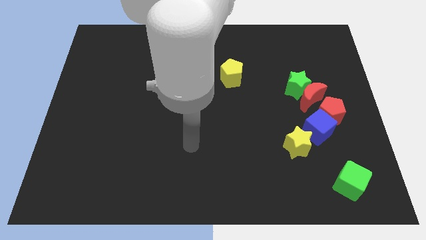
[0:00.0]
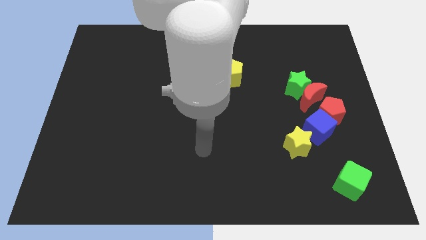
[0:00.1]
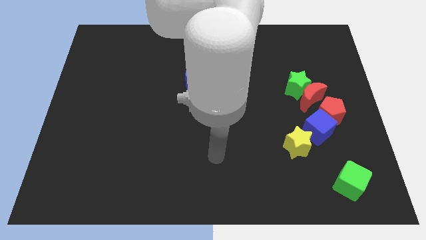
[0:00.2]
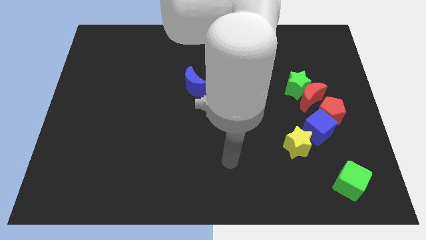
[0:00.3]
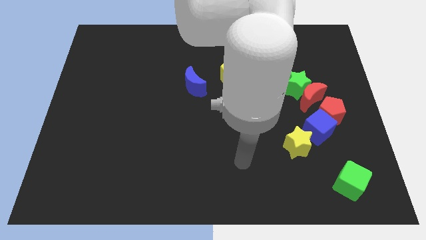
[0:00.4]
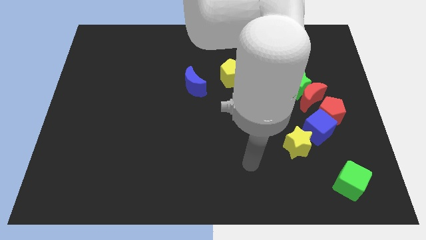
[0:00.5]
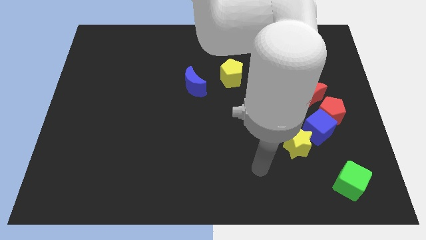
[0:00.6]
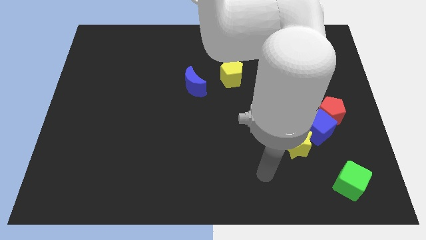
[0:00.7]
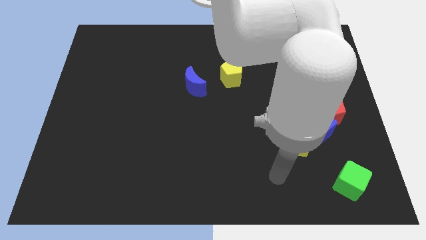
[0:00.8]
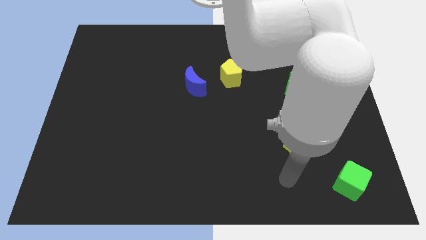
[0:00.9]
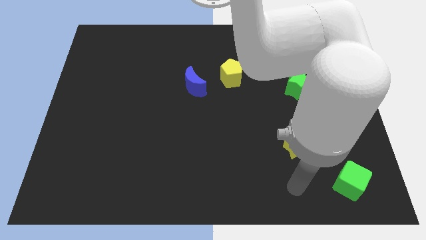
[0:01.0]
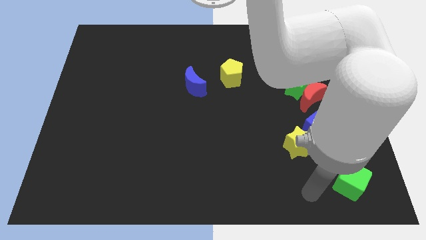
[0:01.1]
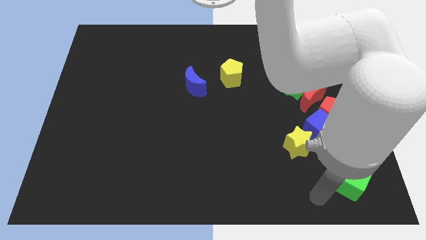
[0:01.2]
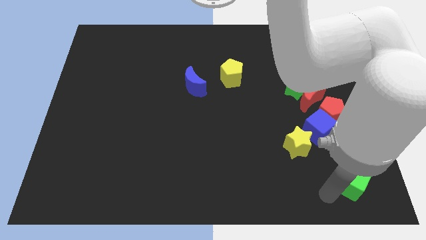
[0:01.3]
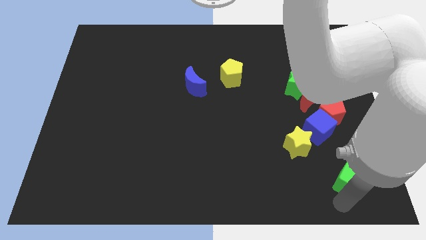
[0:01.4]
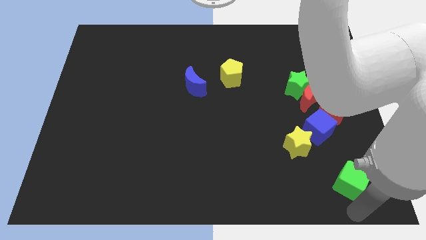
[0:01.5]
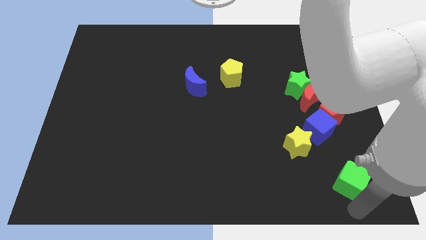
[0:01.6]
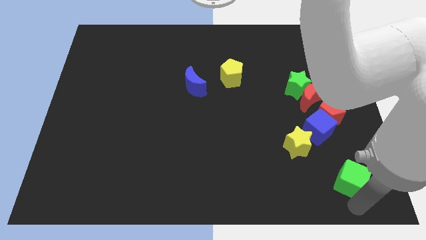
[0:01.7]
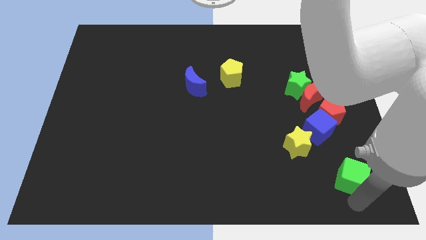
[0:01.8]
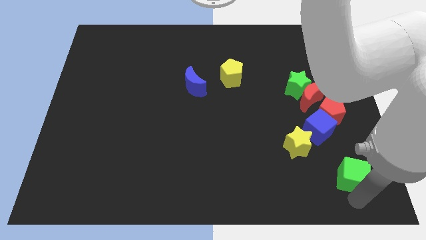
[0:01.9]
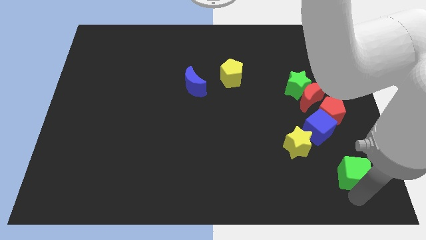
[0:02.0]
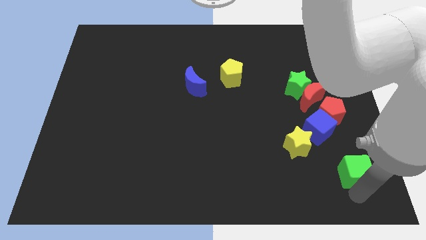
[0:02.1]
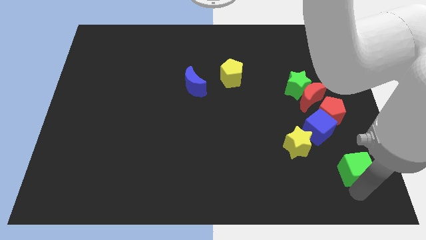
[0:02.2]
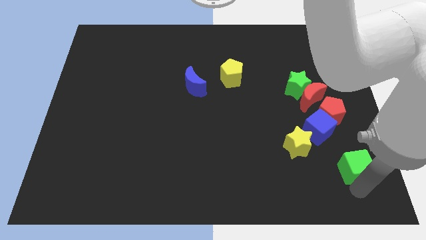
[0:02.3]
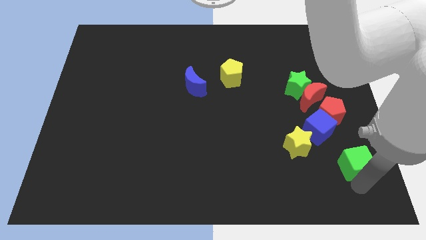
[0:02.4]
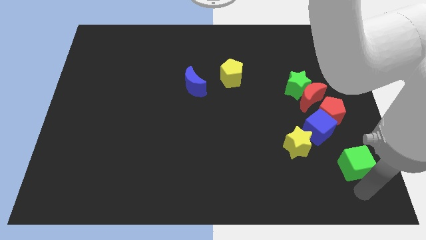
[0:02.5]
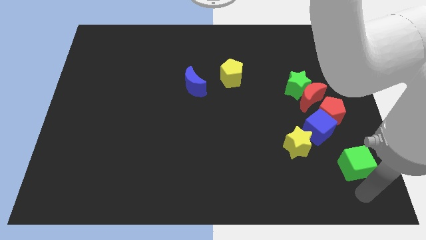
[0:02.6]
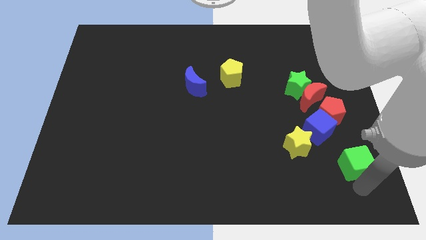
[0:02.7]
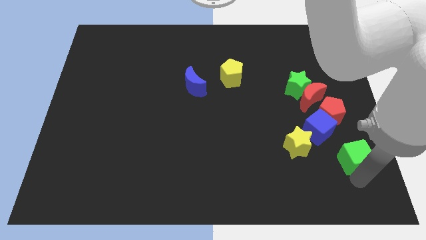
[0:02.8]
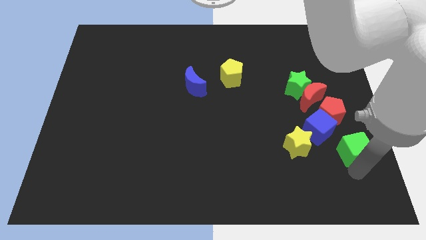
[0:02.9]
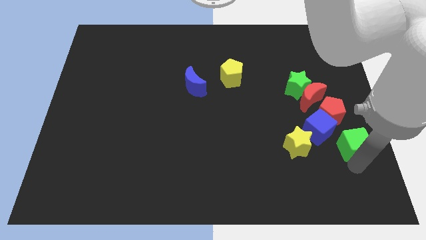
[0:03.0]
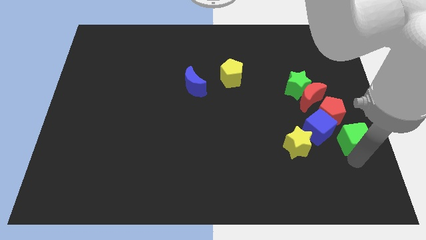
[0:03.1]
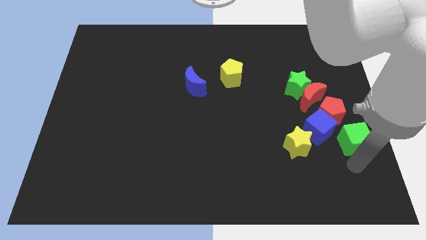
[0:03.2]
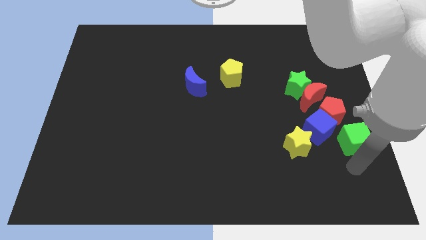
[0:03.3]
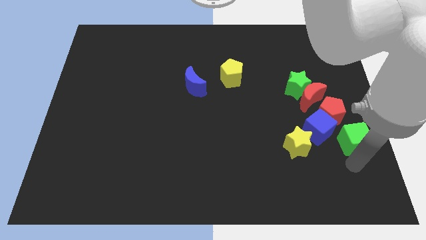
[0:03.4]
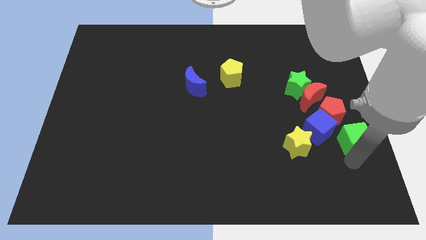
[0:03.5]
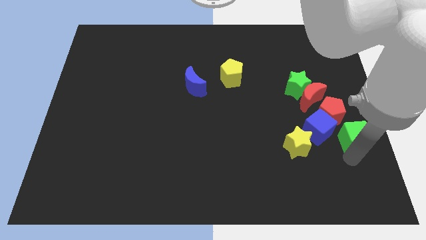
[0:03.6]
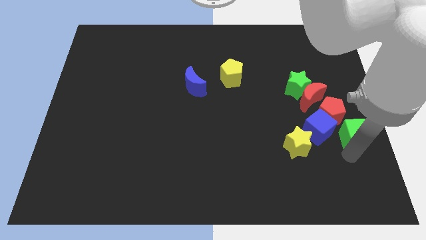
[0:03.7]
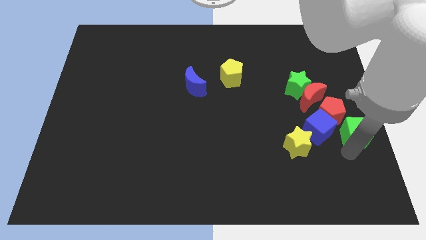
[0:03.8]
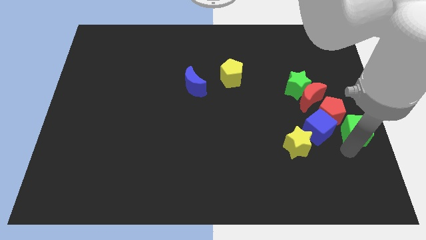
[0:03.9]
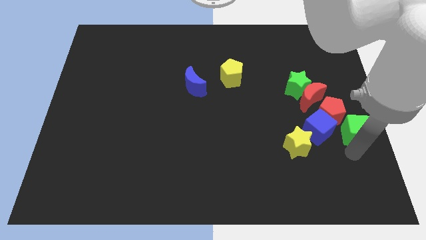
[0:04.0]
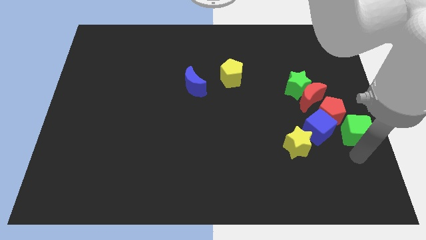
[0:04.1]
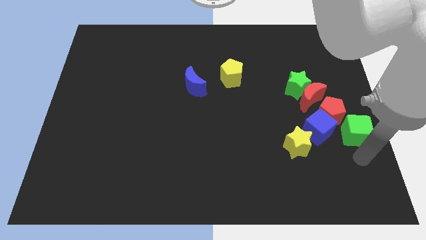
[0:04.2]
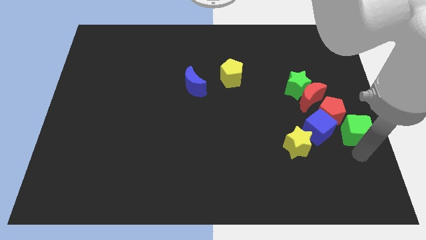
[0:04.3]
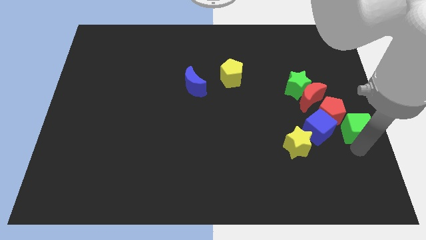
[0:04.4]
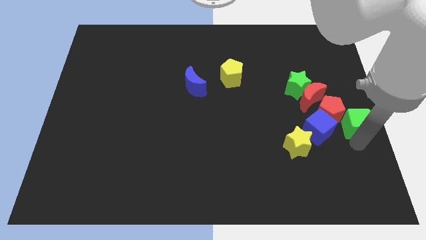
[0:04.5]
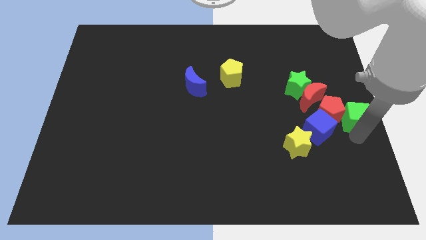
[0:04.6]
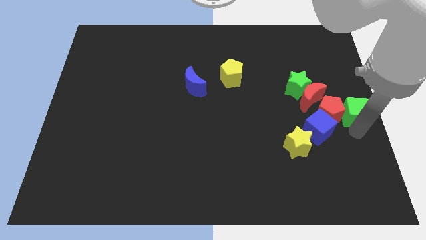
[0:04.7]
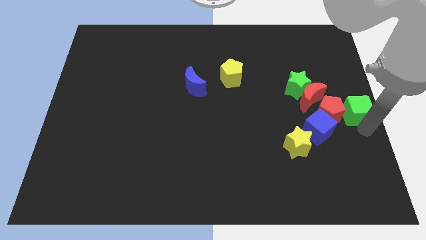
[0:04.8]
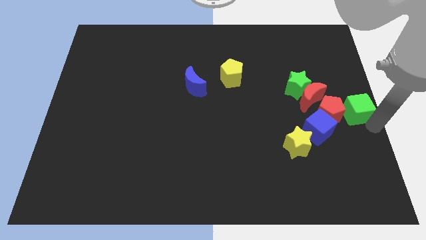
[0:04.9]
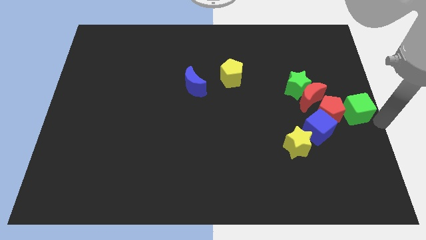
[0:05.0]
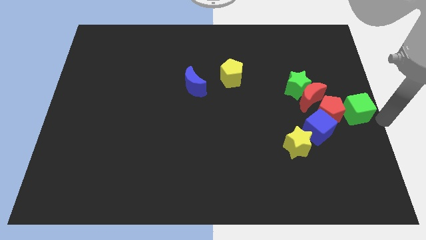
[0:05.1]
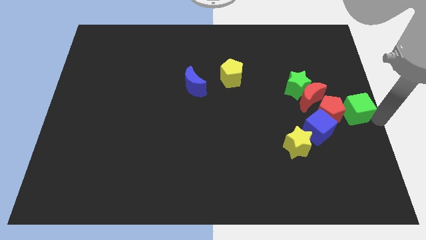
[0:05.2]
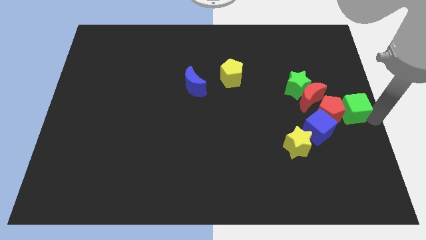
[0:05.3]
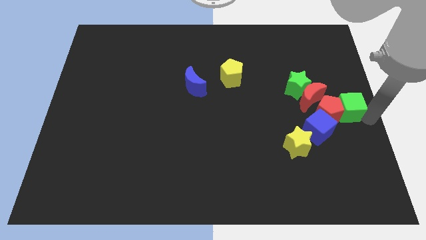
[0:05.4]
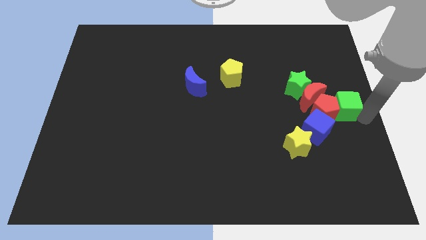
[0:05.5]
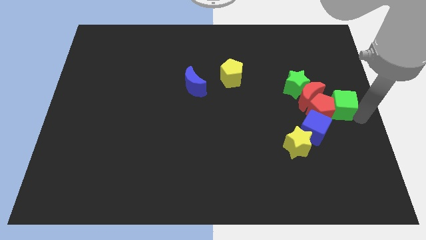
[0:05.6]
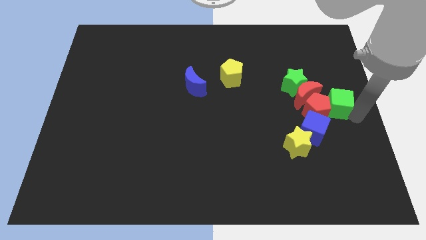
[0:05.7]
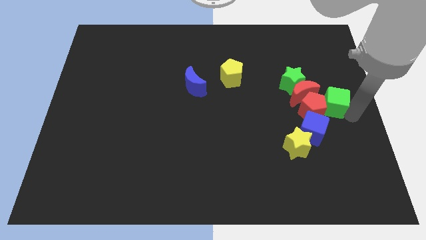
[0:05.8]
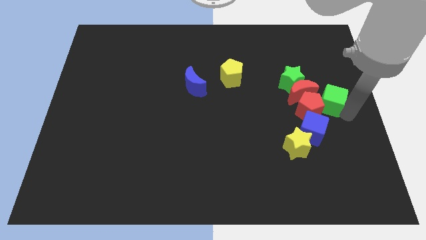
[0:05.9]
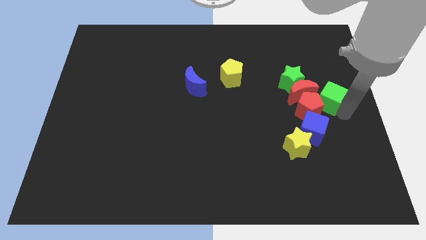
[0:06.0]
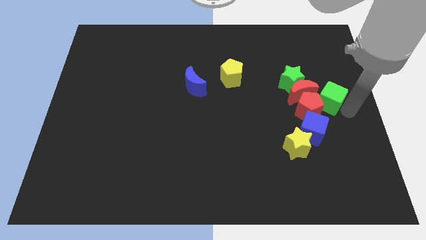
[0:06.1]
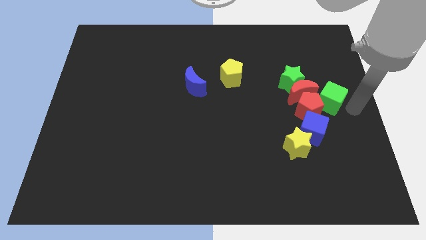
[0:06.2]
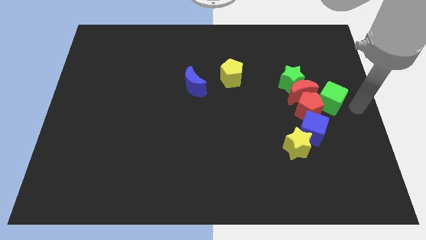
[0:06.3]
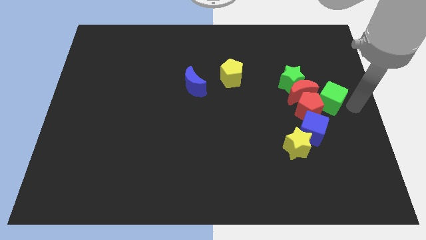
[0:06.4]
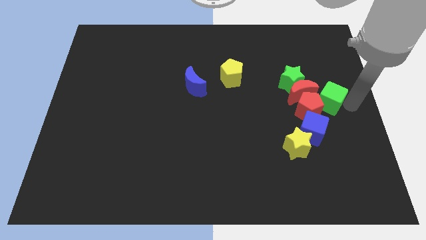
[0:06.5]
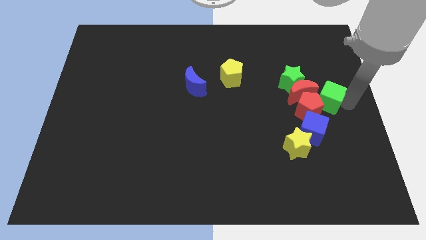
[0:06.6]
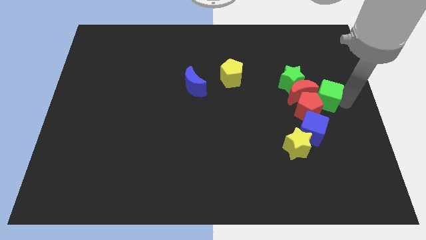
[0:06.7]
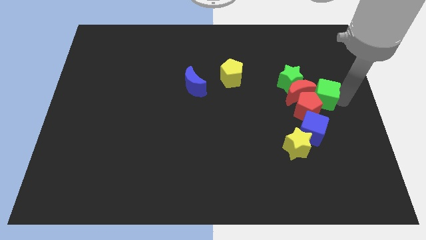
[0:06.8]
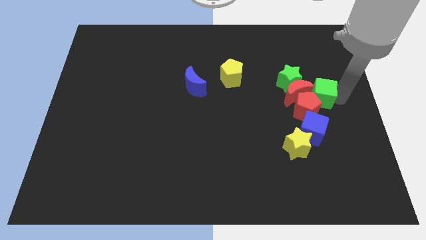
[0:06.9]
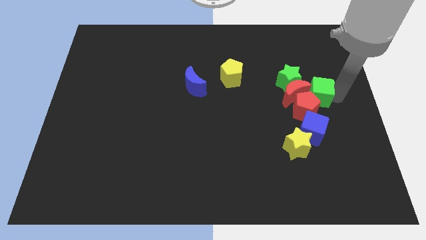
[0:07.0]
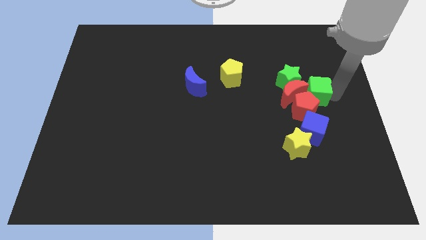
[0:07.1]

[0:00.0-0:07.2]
put the green cube towards the red moon
